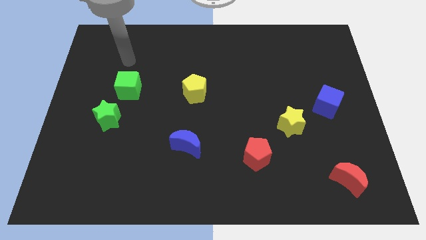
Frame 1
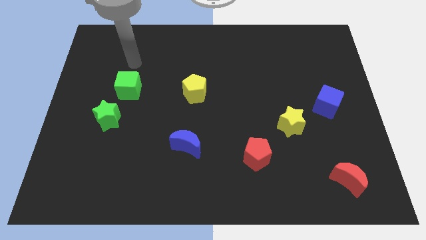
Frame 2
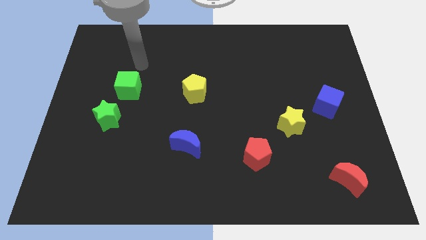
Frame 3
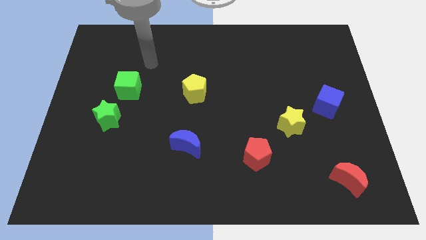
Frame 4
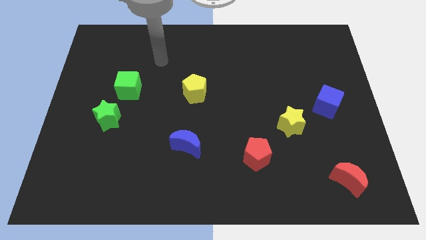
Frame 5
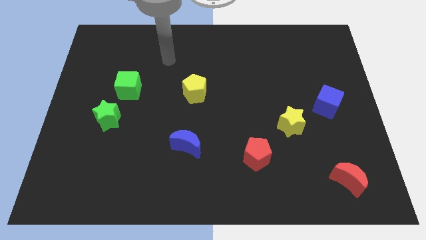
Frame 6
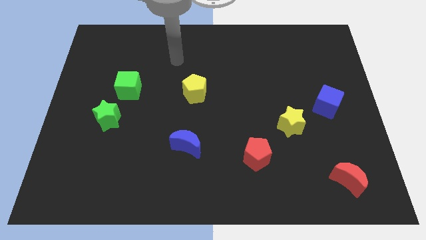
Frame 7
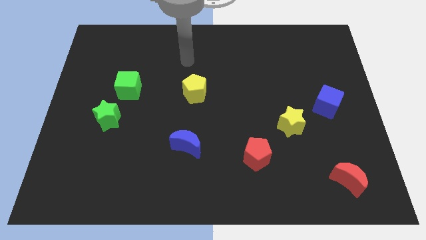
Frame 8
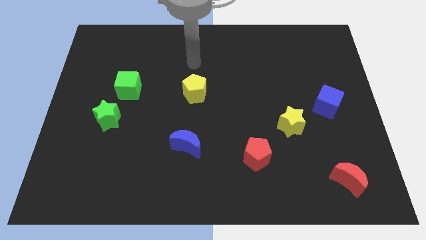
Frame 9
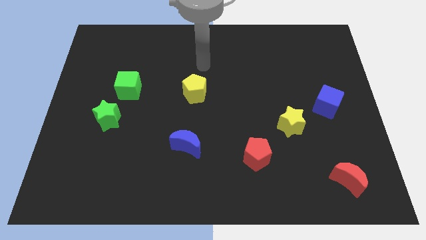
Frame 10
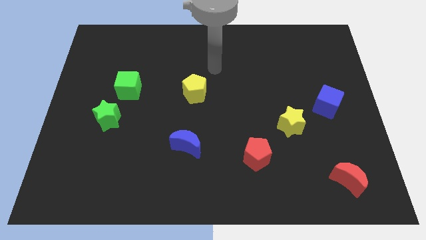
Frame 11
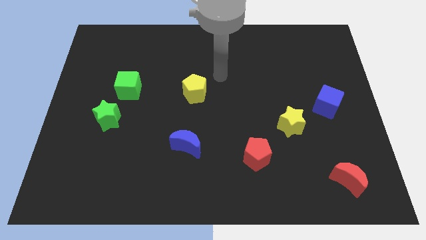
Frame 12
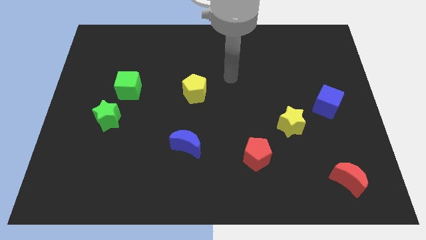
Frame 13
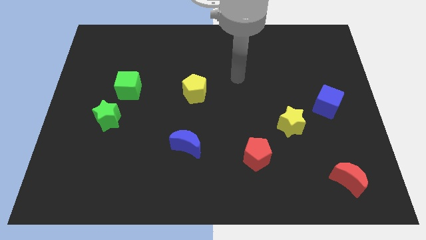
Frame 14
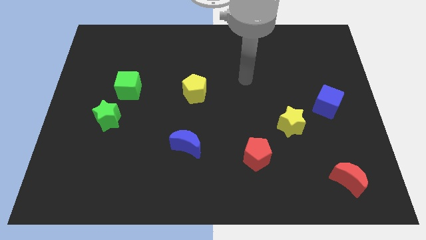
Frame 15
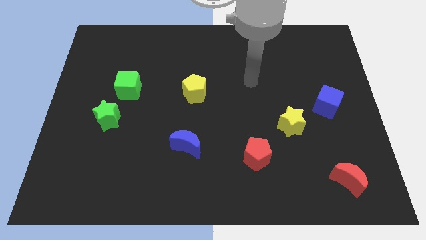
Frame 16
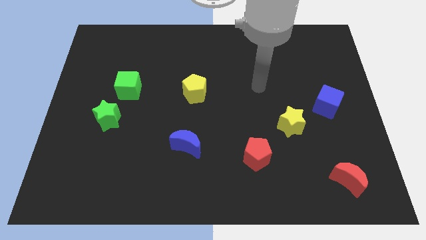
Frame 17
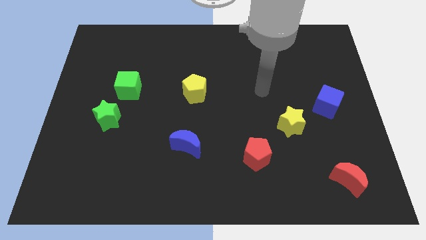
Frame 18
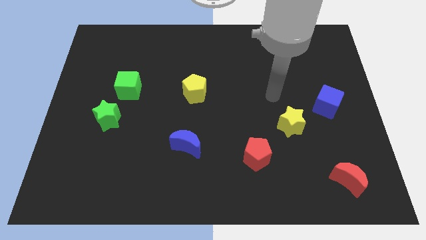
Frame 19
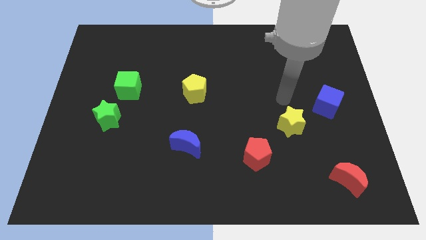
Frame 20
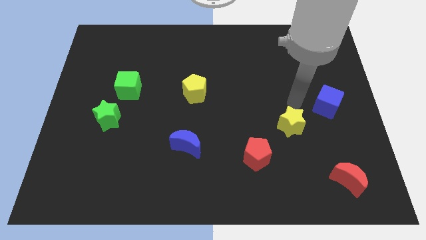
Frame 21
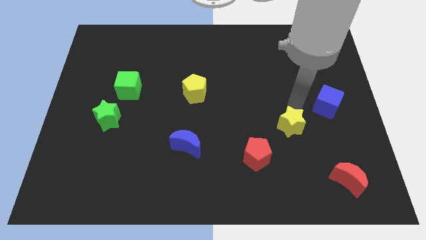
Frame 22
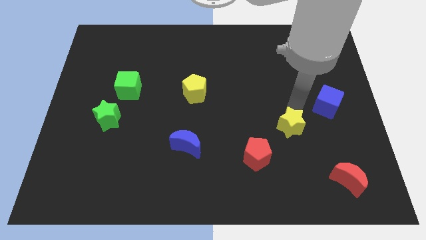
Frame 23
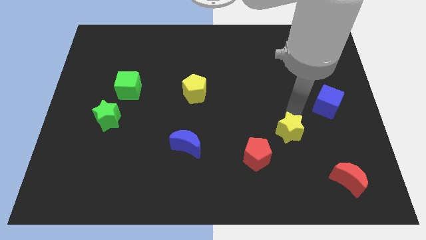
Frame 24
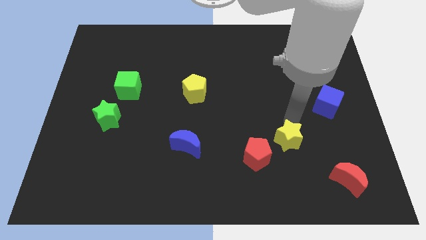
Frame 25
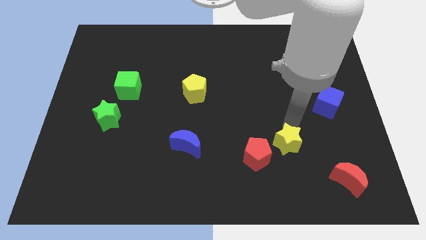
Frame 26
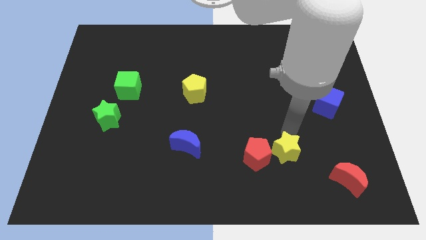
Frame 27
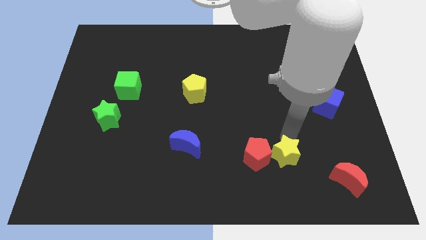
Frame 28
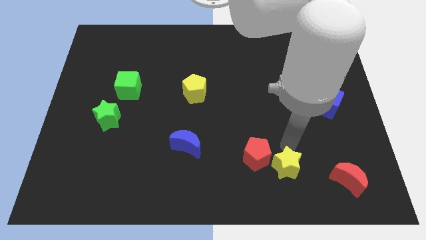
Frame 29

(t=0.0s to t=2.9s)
push the yellow star downwards and left diagonally a bit

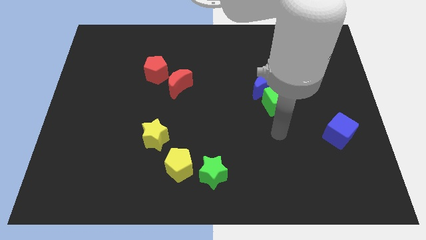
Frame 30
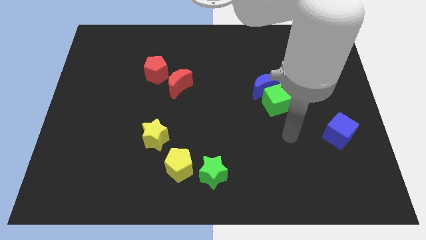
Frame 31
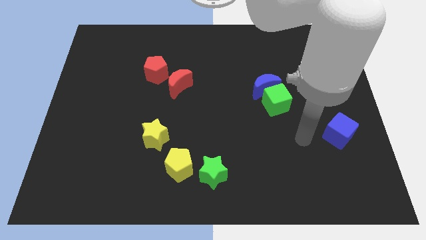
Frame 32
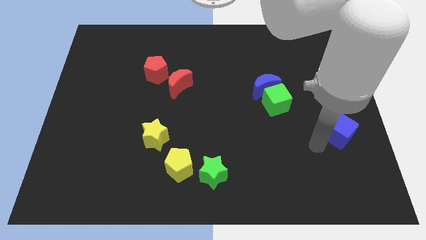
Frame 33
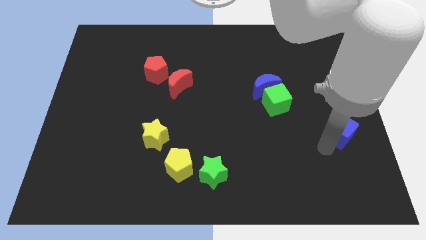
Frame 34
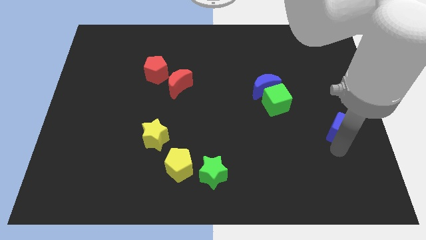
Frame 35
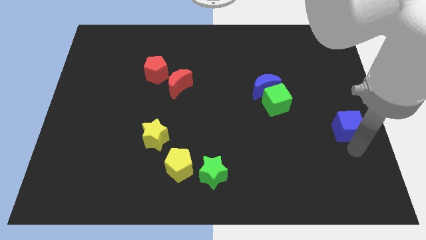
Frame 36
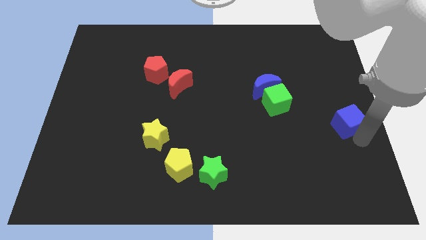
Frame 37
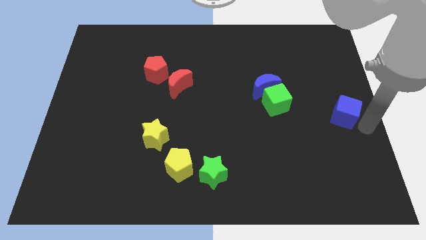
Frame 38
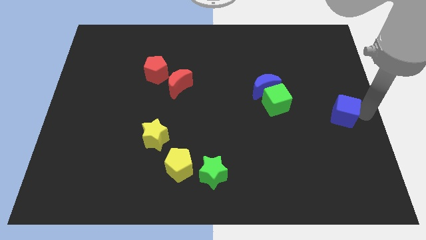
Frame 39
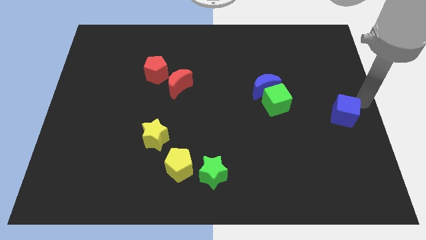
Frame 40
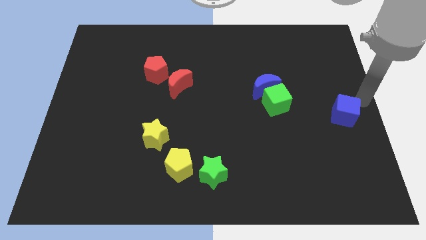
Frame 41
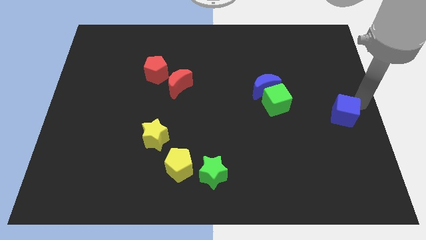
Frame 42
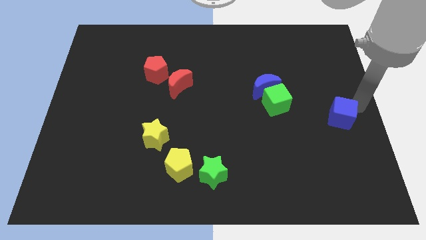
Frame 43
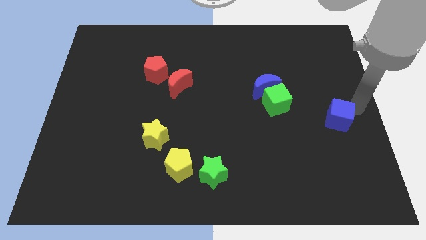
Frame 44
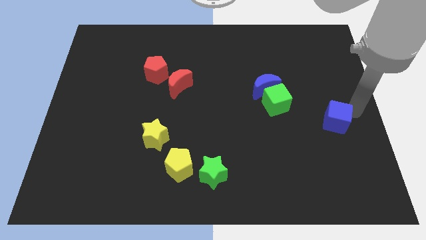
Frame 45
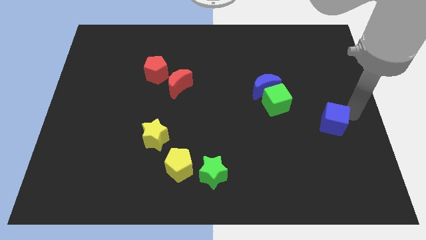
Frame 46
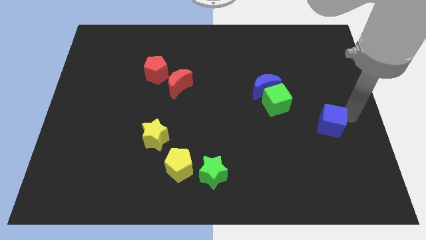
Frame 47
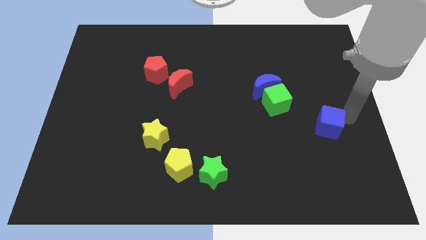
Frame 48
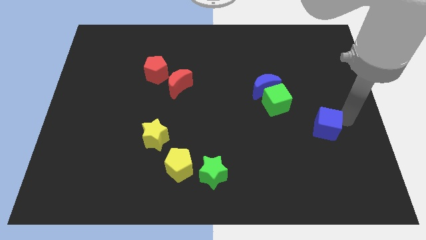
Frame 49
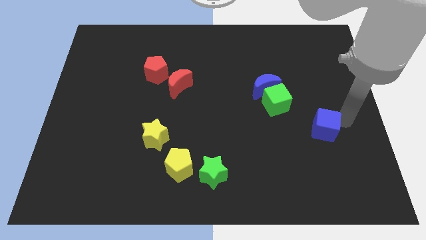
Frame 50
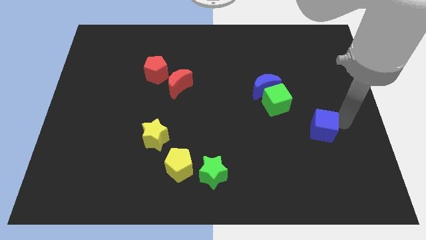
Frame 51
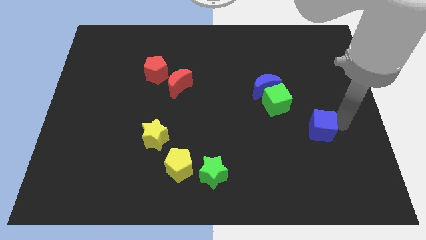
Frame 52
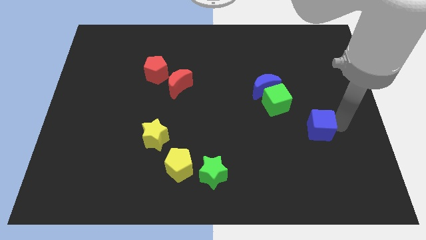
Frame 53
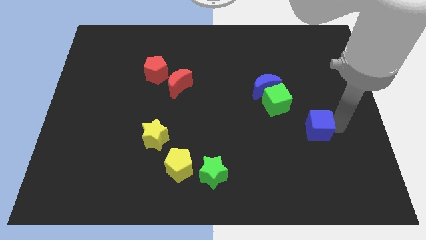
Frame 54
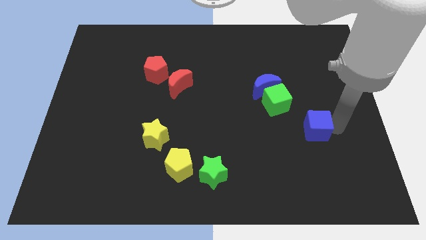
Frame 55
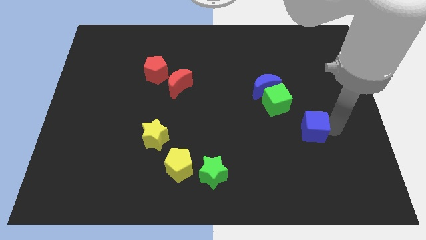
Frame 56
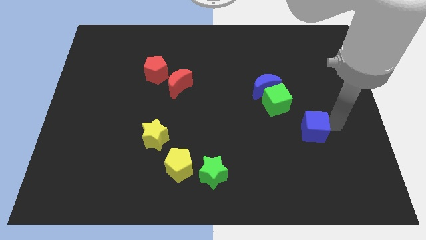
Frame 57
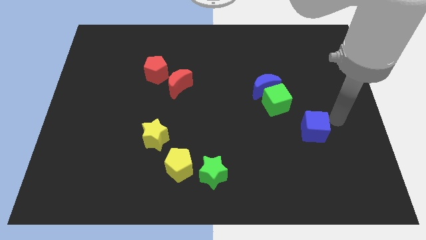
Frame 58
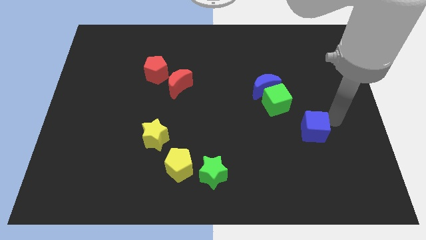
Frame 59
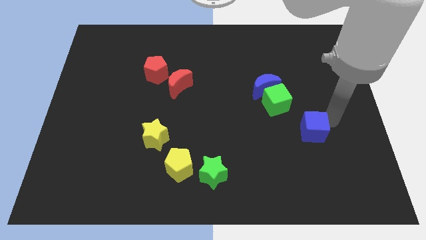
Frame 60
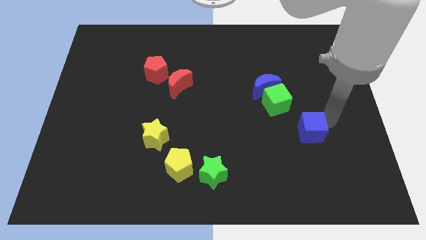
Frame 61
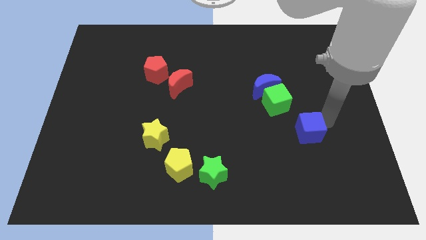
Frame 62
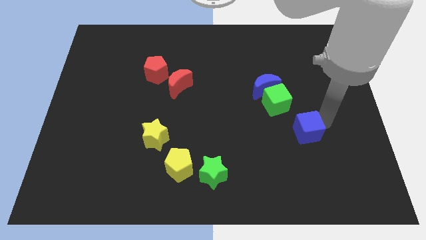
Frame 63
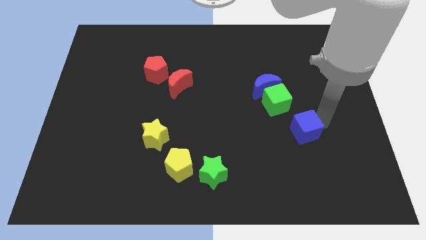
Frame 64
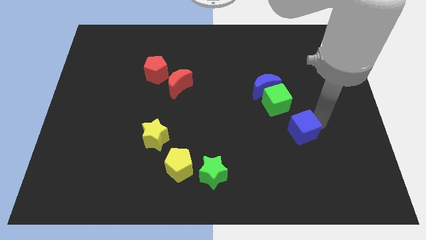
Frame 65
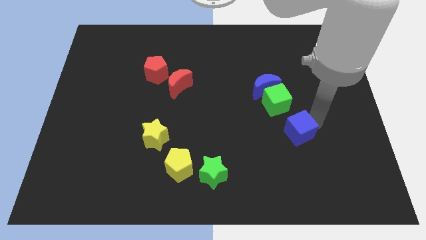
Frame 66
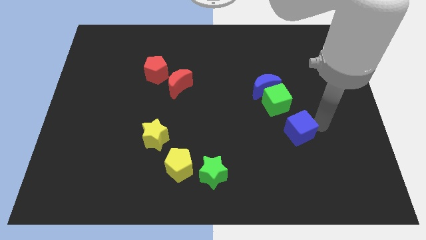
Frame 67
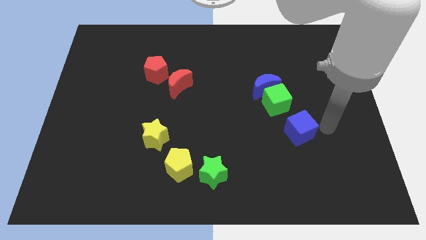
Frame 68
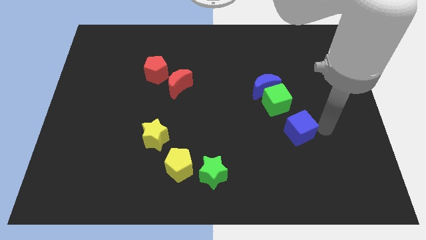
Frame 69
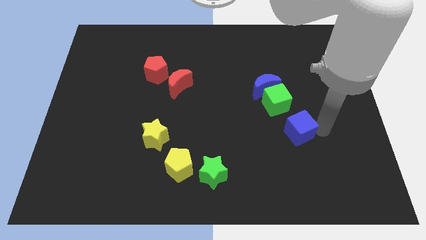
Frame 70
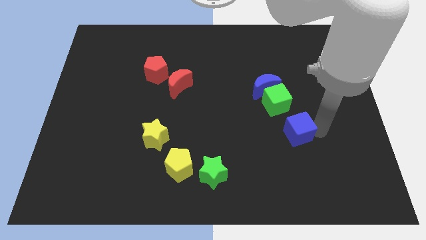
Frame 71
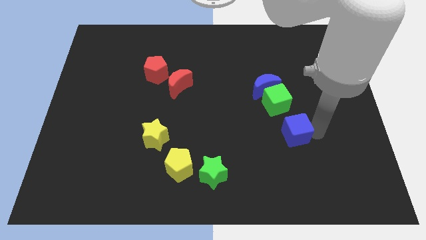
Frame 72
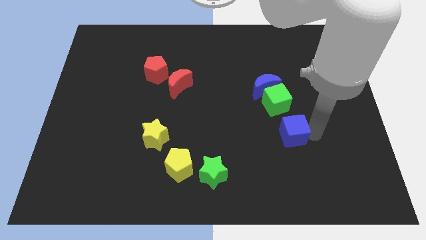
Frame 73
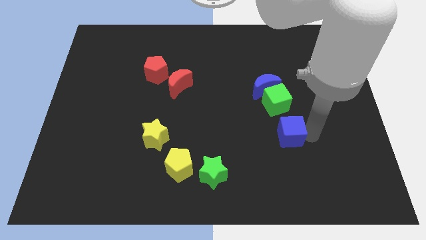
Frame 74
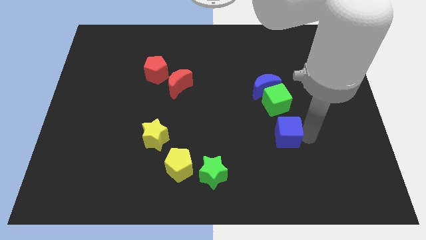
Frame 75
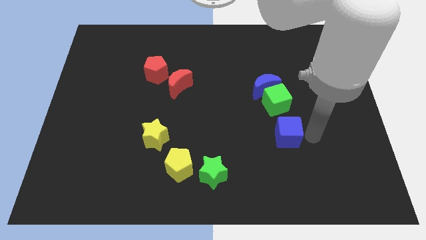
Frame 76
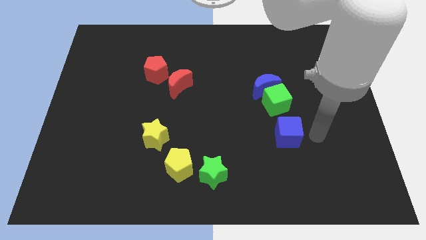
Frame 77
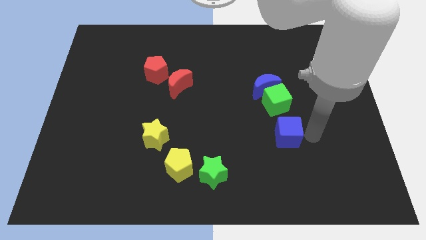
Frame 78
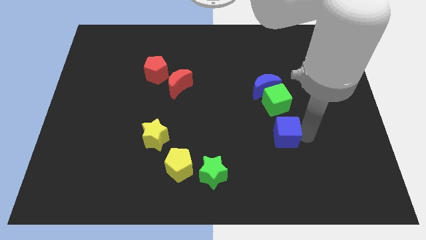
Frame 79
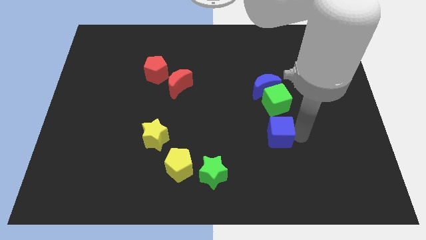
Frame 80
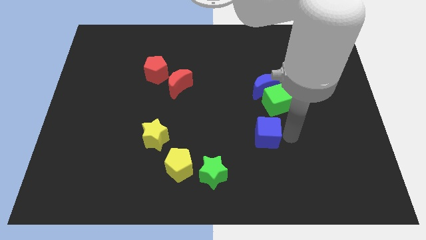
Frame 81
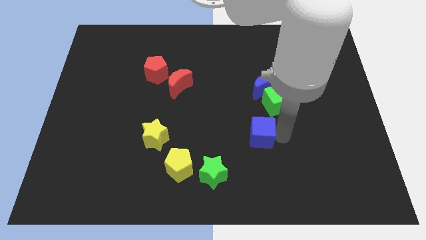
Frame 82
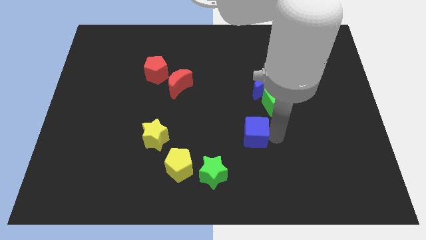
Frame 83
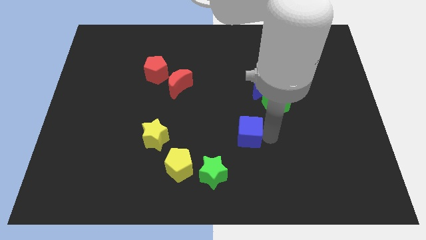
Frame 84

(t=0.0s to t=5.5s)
slide the blue cube left
